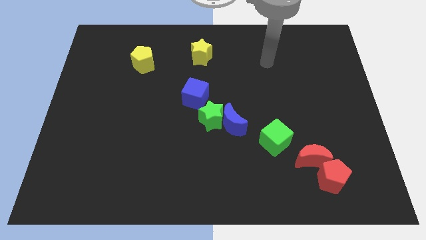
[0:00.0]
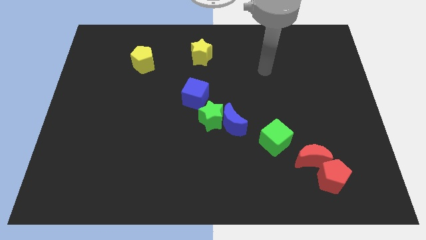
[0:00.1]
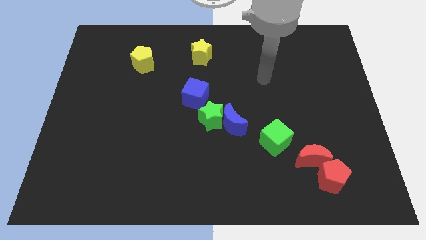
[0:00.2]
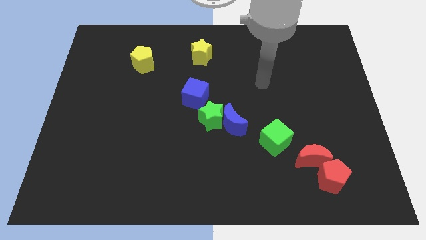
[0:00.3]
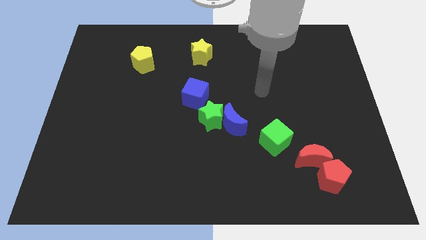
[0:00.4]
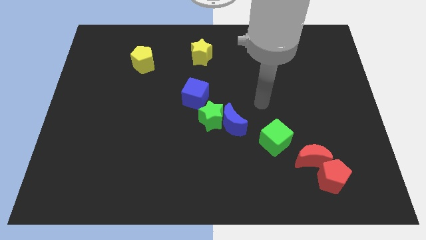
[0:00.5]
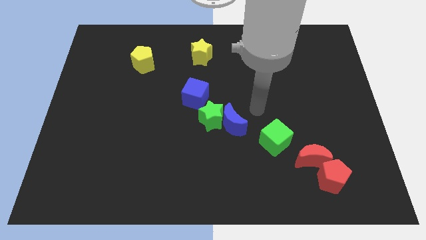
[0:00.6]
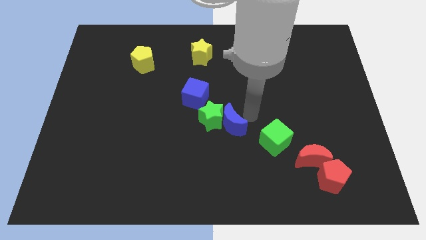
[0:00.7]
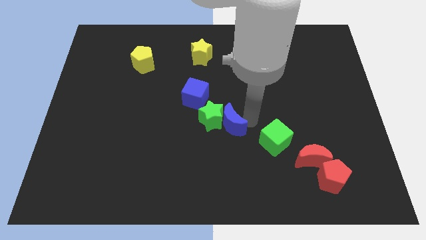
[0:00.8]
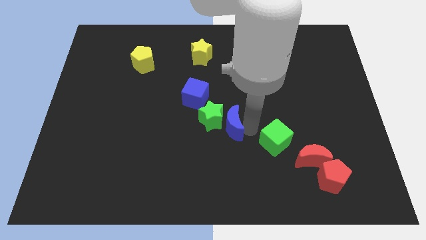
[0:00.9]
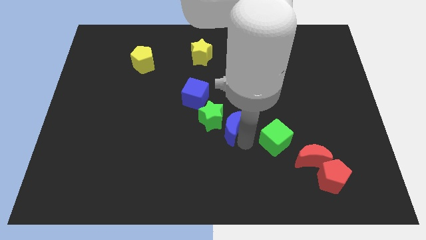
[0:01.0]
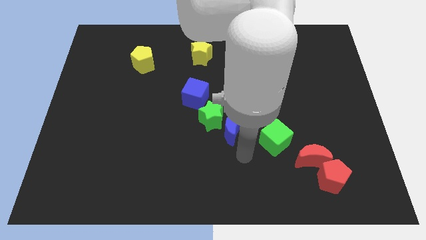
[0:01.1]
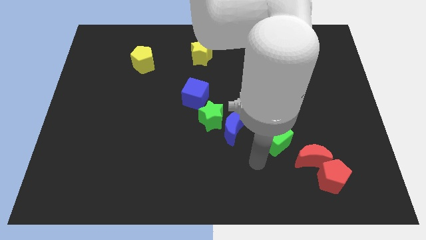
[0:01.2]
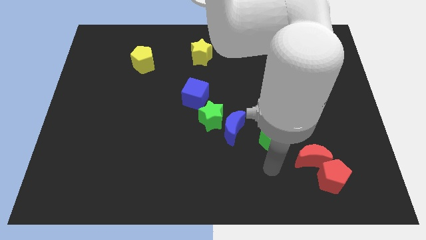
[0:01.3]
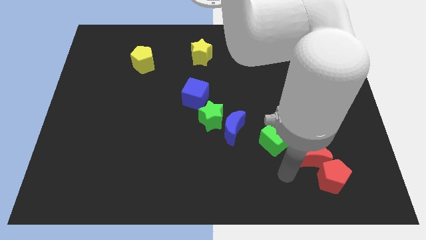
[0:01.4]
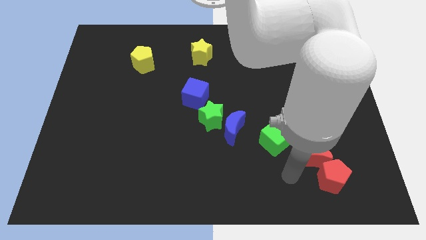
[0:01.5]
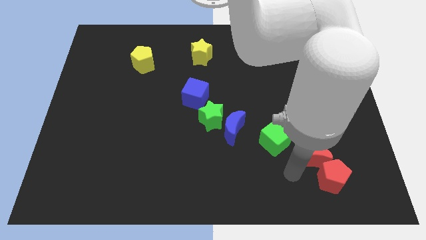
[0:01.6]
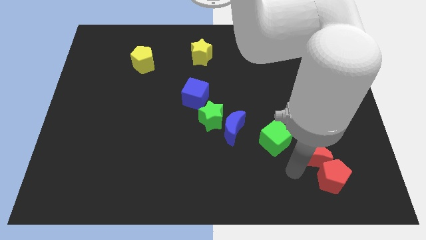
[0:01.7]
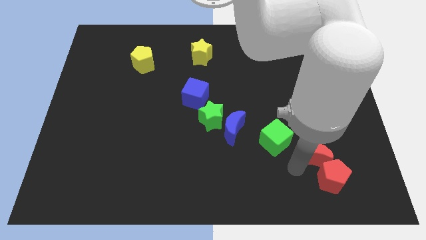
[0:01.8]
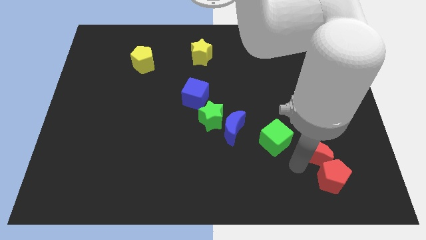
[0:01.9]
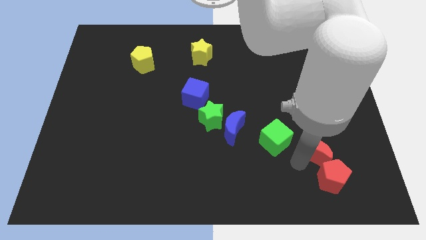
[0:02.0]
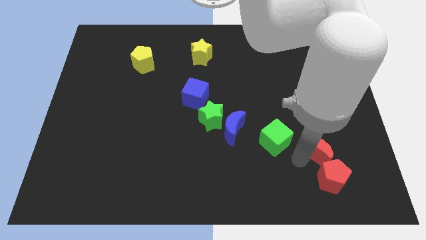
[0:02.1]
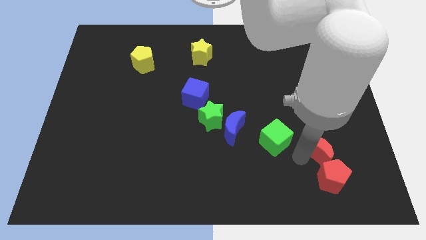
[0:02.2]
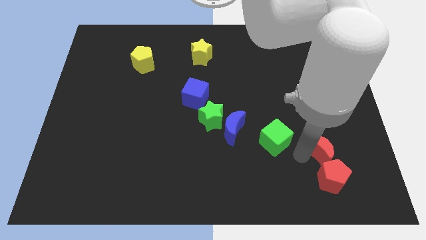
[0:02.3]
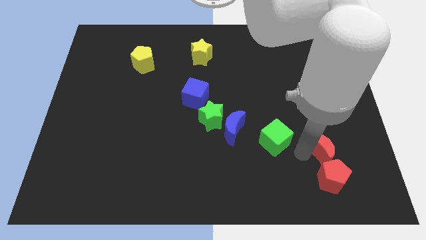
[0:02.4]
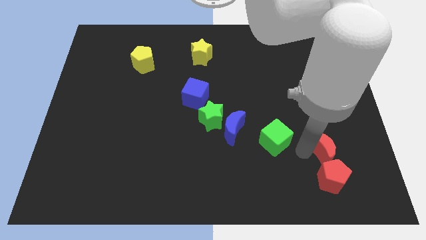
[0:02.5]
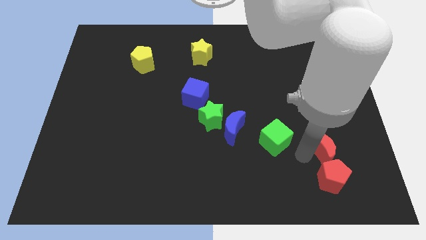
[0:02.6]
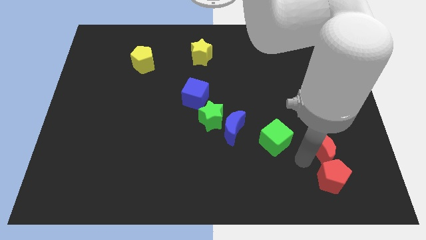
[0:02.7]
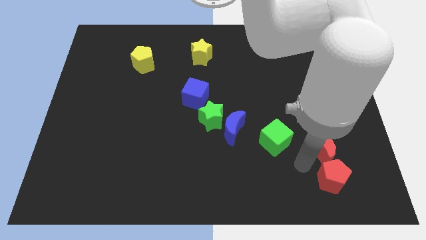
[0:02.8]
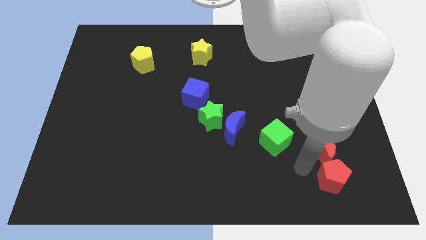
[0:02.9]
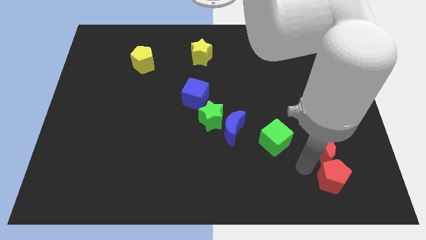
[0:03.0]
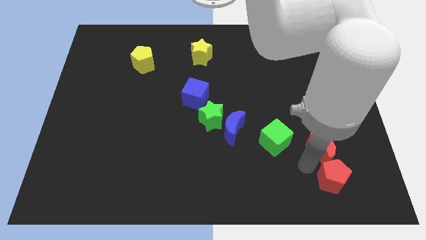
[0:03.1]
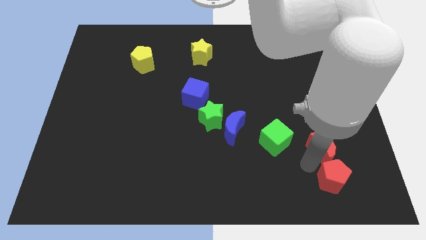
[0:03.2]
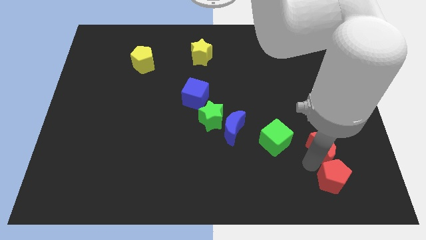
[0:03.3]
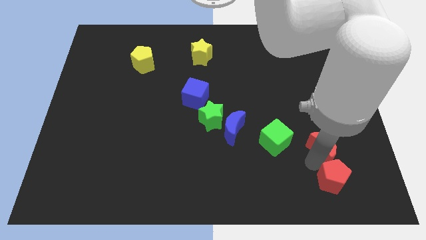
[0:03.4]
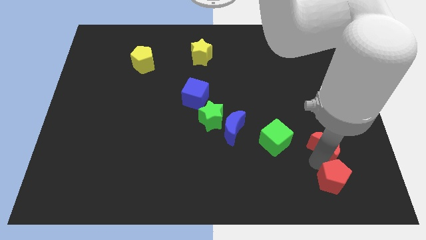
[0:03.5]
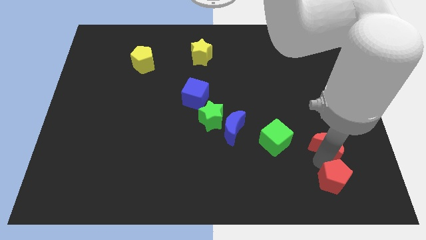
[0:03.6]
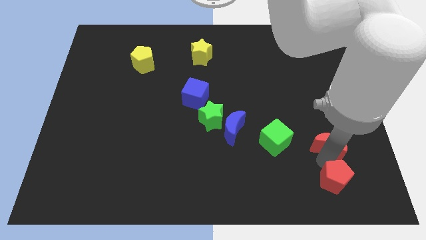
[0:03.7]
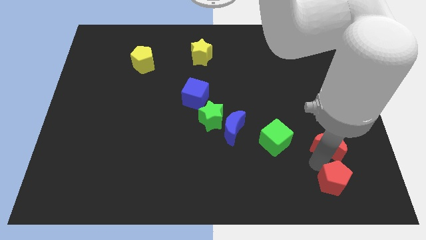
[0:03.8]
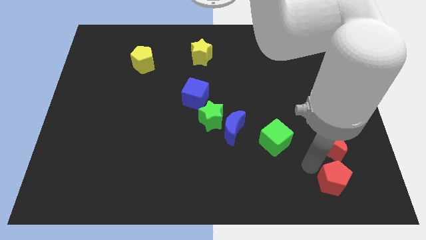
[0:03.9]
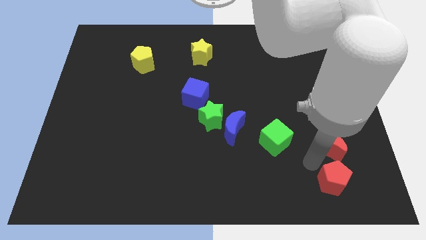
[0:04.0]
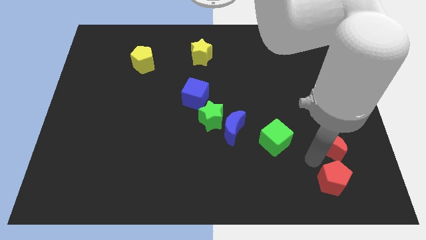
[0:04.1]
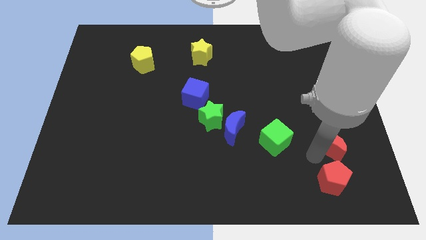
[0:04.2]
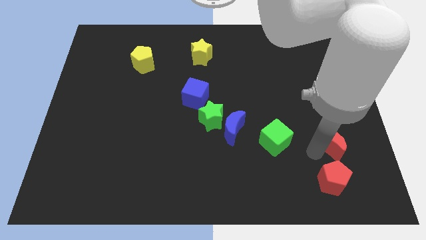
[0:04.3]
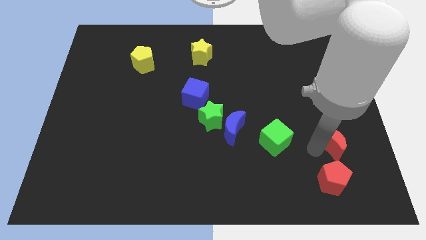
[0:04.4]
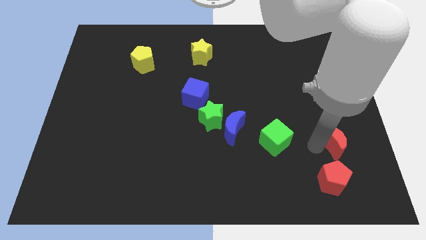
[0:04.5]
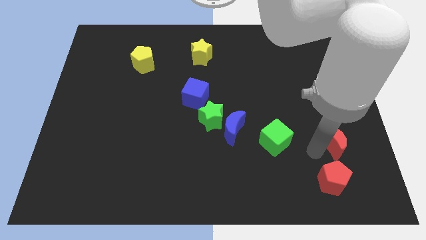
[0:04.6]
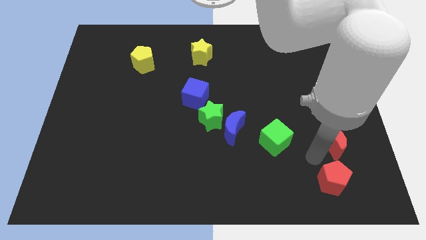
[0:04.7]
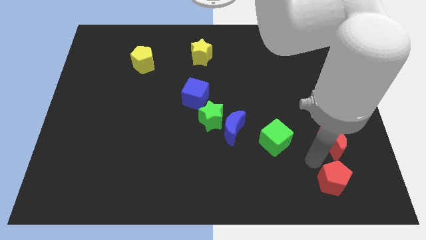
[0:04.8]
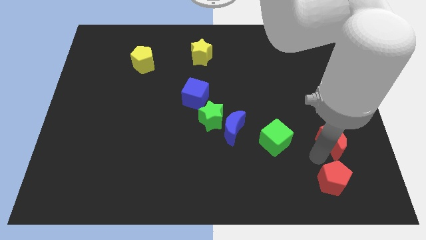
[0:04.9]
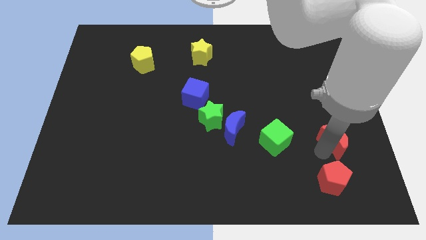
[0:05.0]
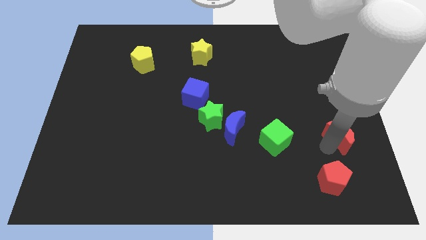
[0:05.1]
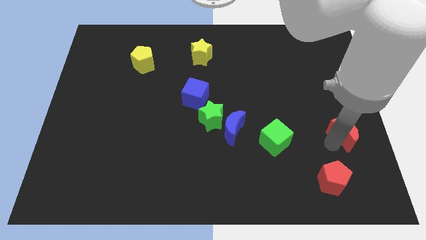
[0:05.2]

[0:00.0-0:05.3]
slide the red moon to the right side
